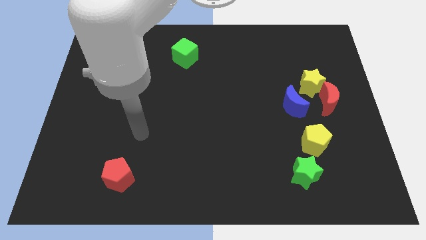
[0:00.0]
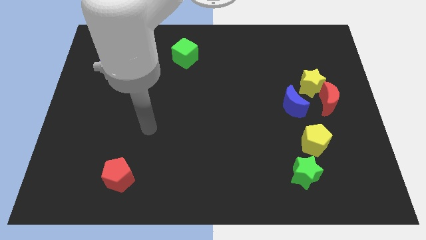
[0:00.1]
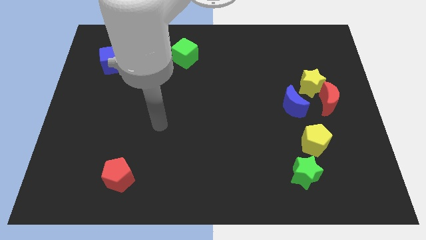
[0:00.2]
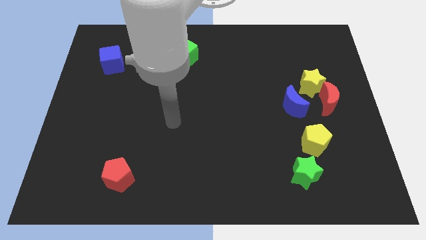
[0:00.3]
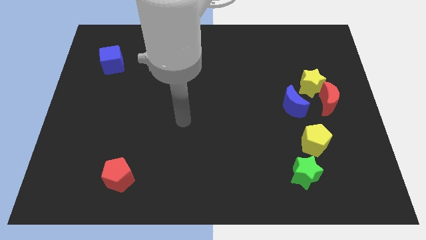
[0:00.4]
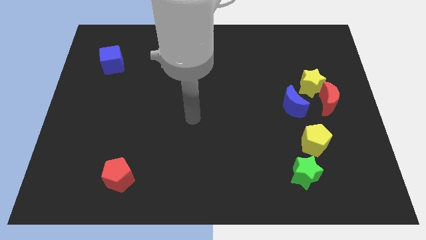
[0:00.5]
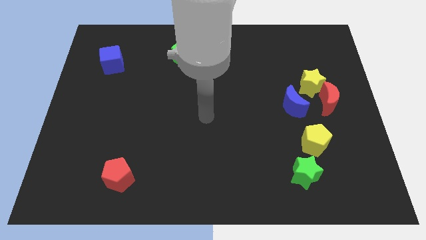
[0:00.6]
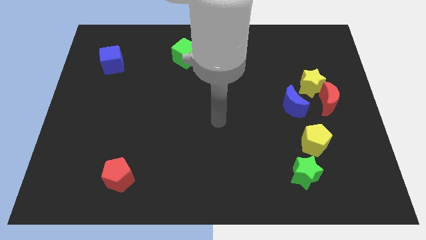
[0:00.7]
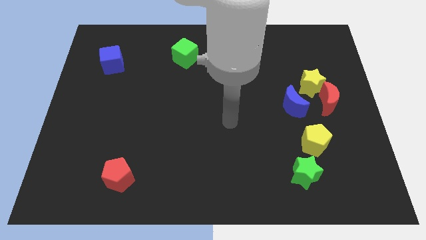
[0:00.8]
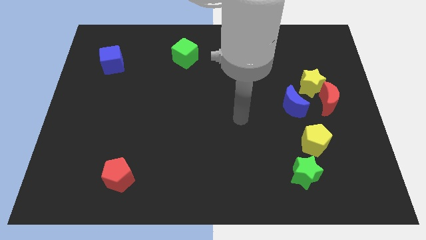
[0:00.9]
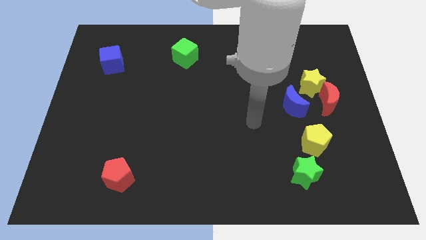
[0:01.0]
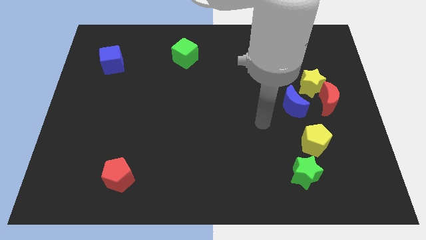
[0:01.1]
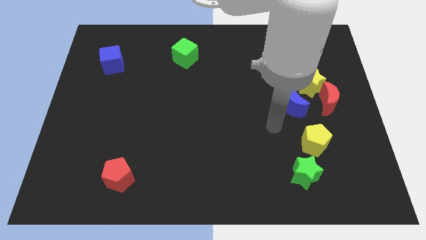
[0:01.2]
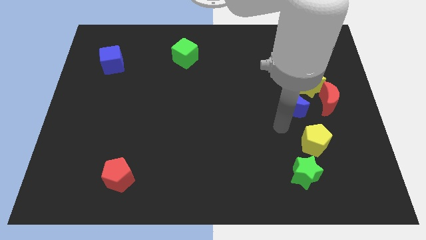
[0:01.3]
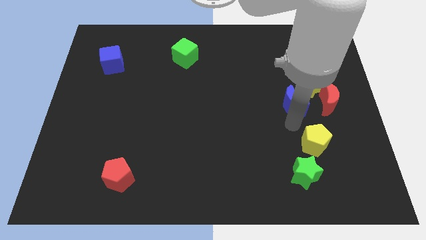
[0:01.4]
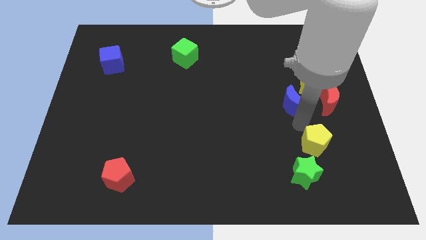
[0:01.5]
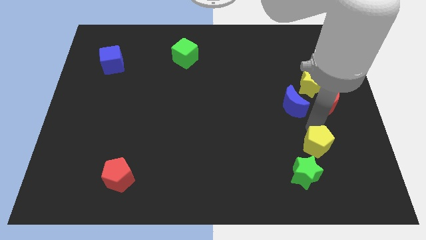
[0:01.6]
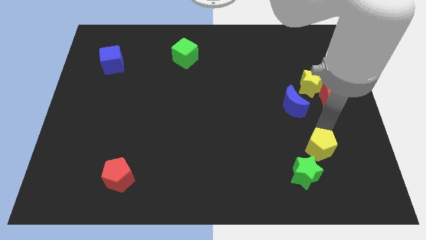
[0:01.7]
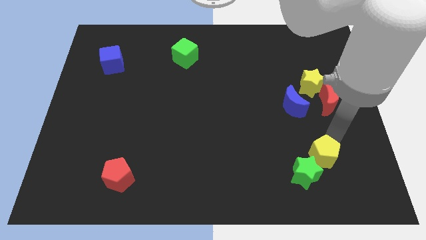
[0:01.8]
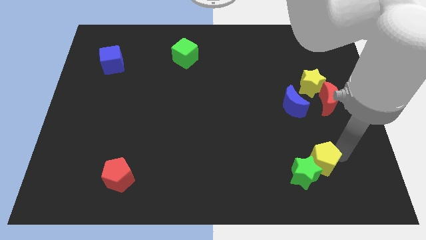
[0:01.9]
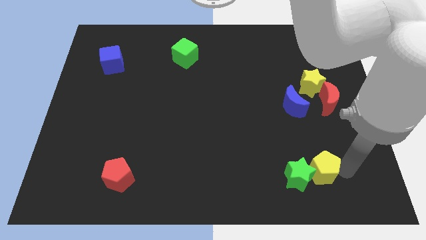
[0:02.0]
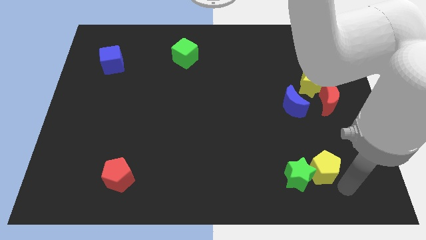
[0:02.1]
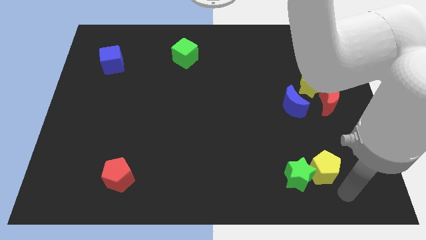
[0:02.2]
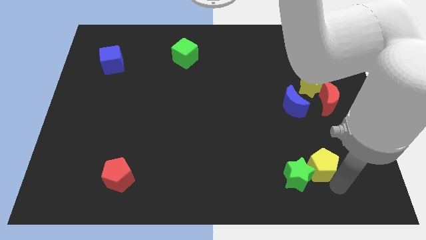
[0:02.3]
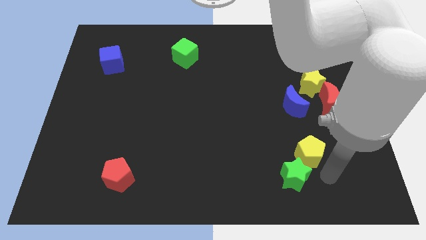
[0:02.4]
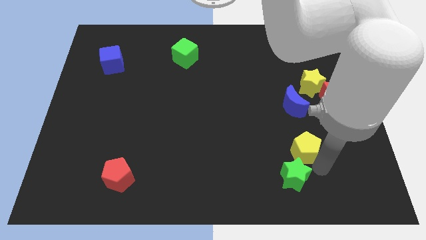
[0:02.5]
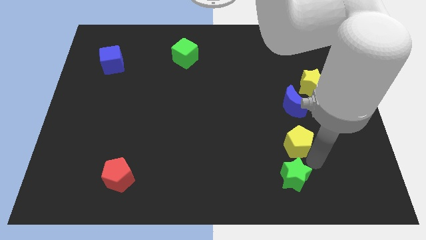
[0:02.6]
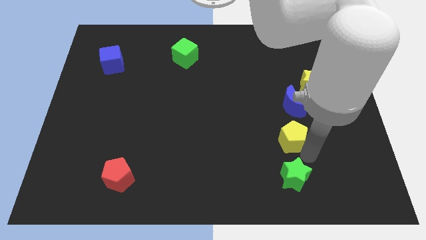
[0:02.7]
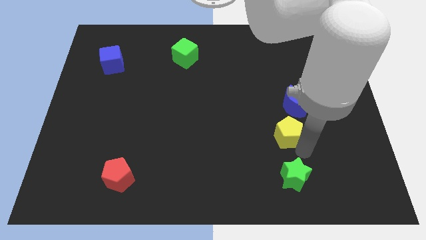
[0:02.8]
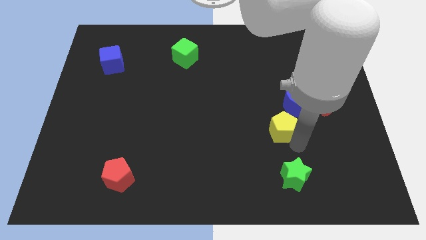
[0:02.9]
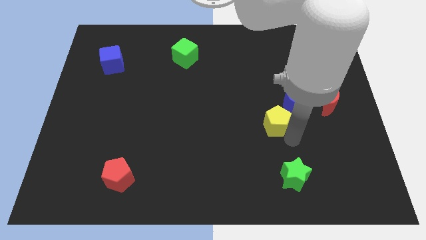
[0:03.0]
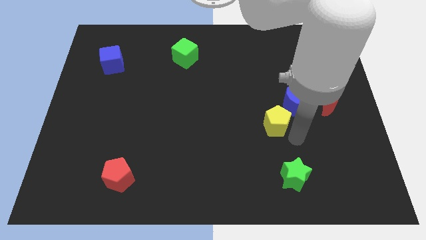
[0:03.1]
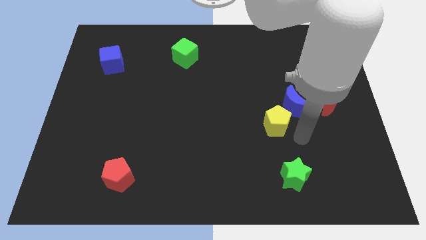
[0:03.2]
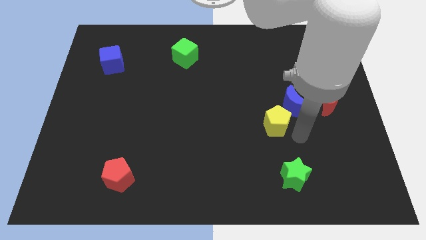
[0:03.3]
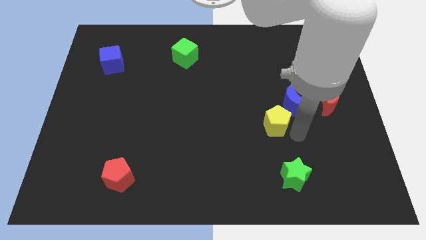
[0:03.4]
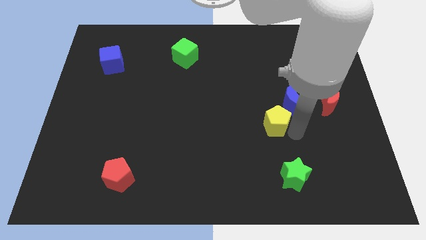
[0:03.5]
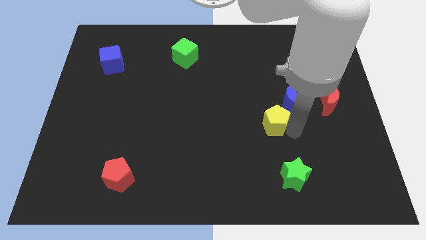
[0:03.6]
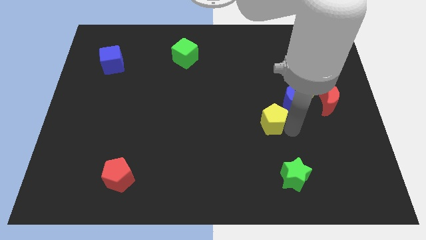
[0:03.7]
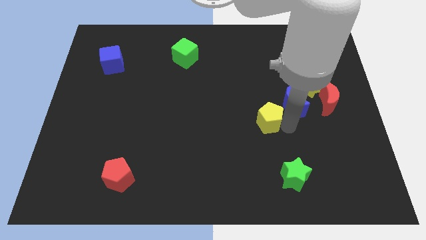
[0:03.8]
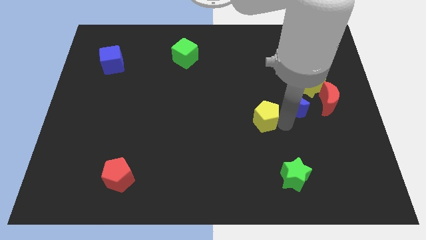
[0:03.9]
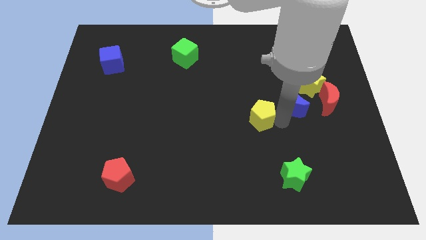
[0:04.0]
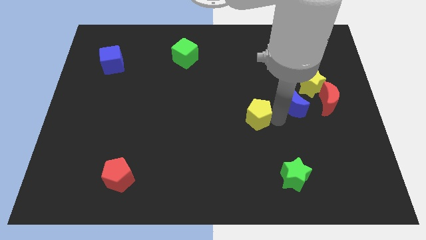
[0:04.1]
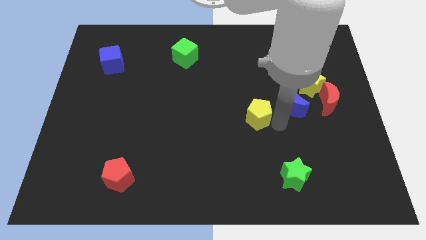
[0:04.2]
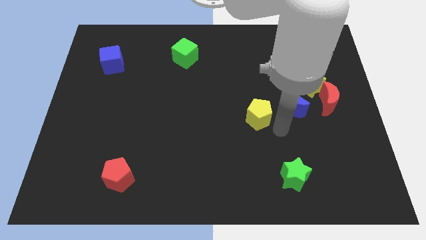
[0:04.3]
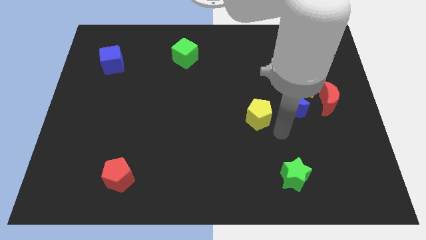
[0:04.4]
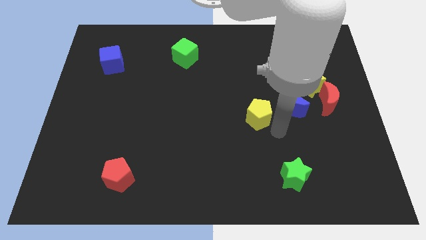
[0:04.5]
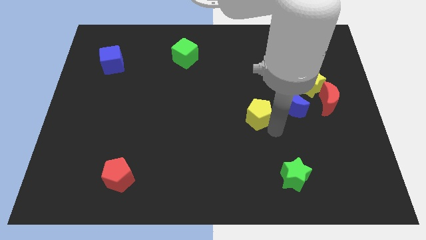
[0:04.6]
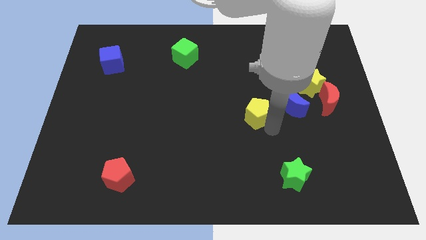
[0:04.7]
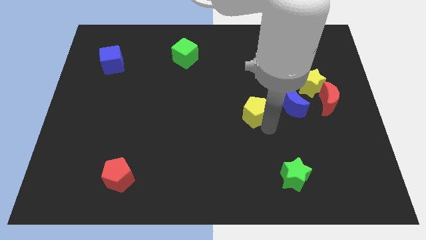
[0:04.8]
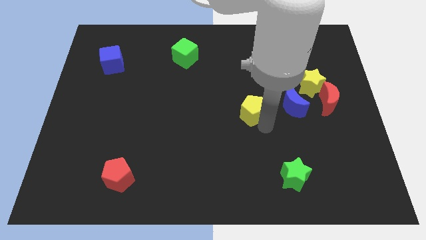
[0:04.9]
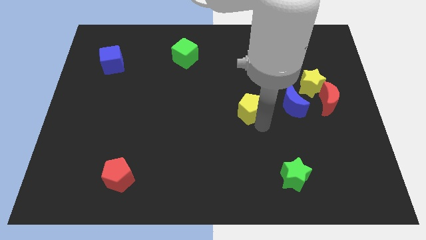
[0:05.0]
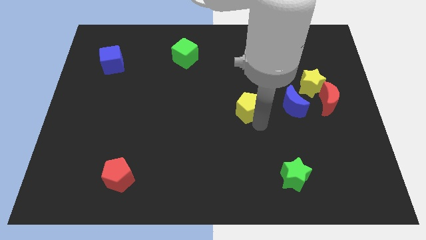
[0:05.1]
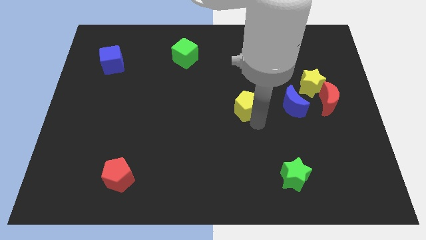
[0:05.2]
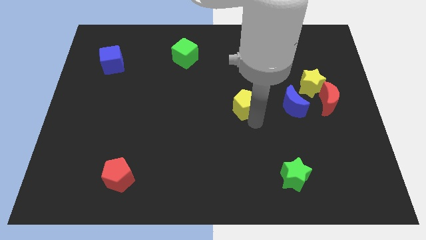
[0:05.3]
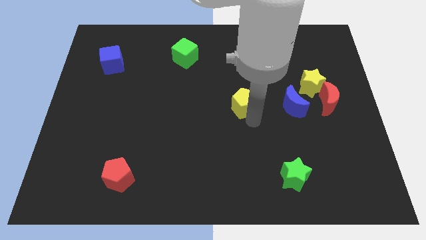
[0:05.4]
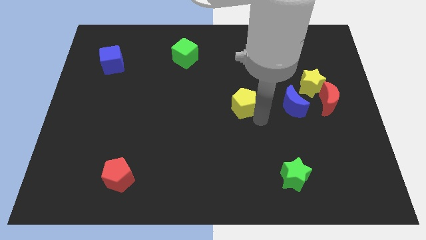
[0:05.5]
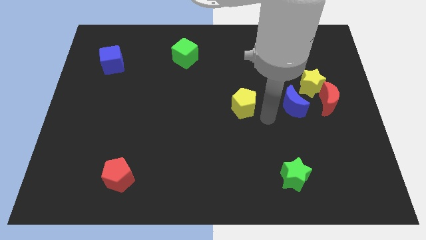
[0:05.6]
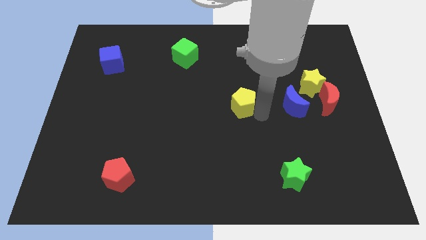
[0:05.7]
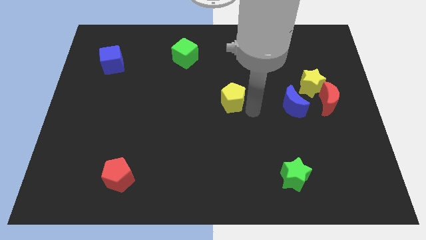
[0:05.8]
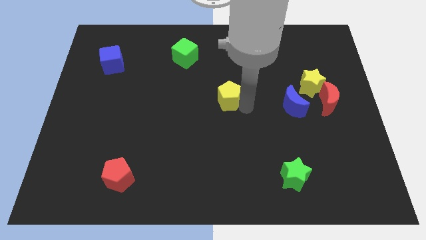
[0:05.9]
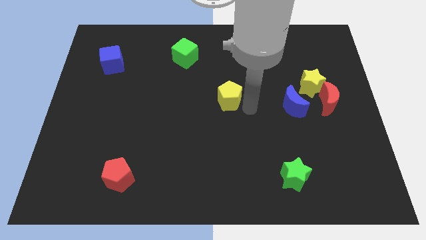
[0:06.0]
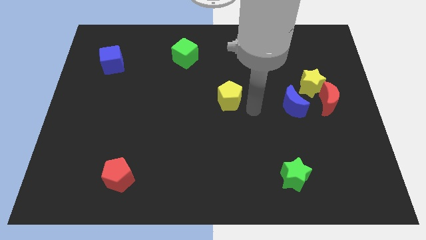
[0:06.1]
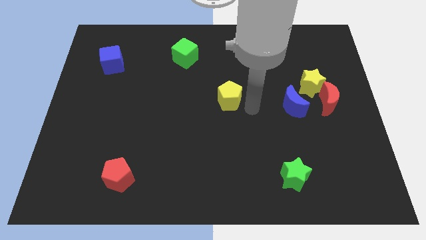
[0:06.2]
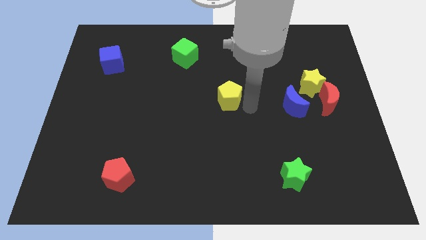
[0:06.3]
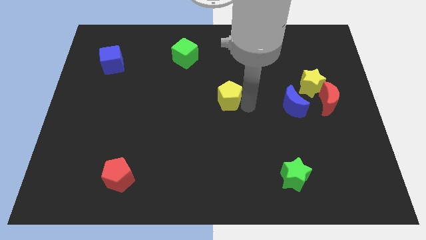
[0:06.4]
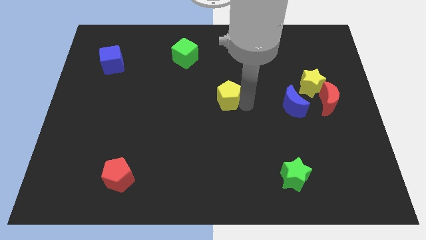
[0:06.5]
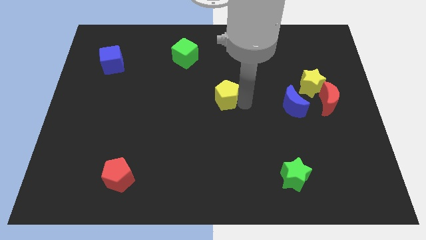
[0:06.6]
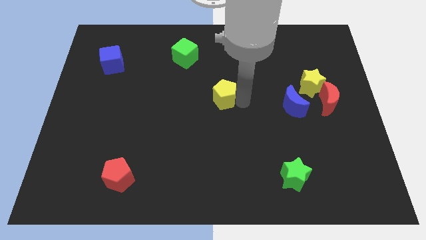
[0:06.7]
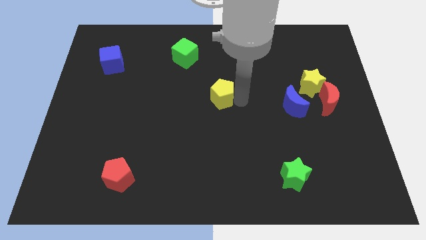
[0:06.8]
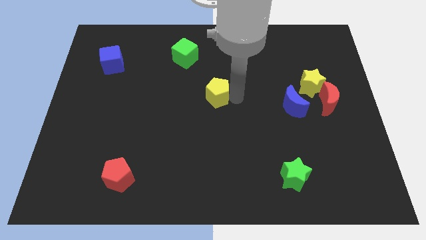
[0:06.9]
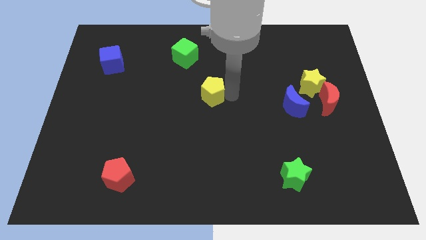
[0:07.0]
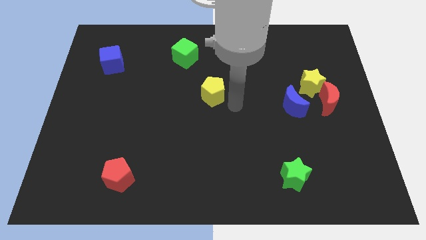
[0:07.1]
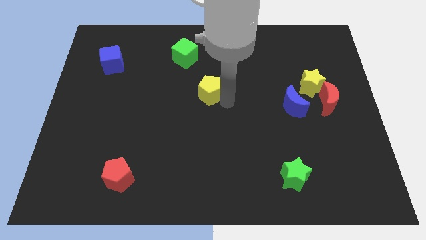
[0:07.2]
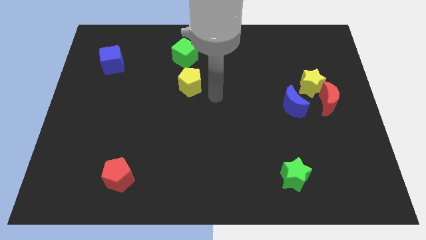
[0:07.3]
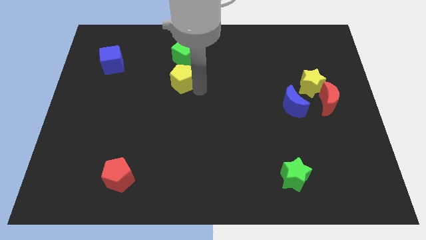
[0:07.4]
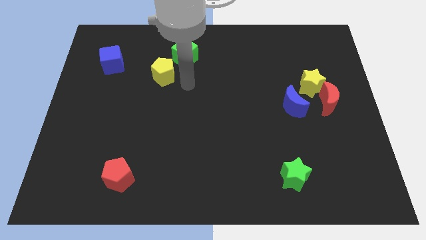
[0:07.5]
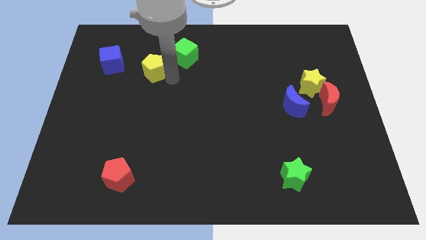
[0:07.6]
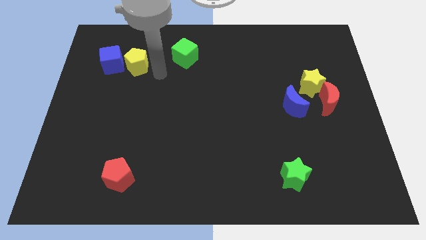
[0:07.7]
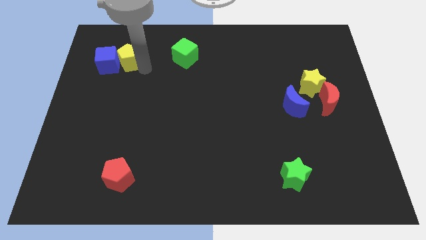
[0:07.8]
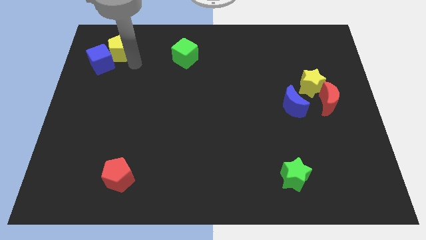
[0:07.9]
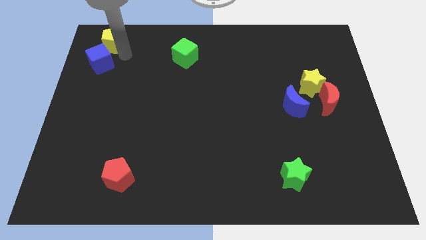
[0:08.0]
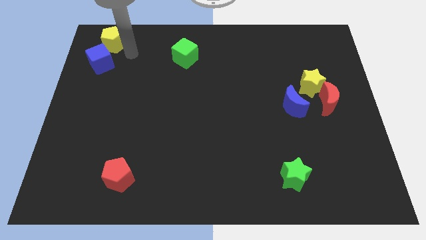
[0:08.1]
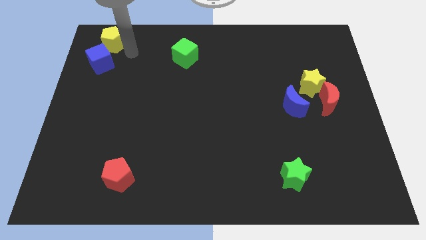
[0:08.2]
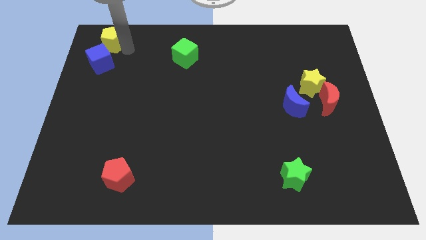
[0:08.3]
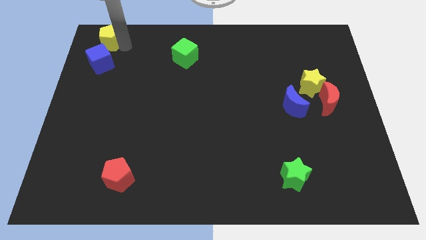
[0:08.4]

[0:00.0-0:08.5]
slide the yellow pentagon to the top left
